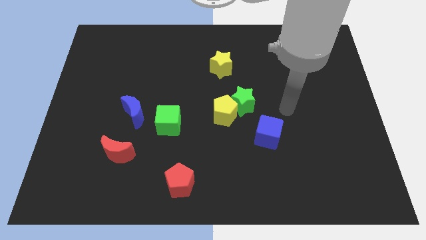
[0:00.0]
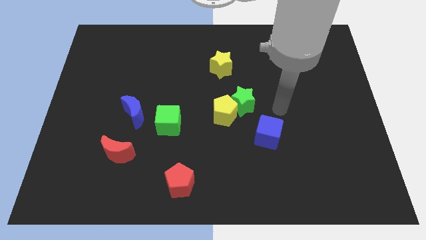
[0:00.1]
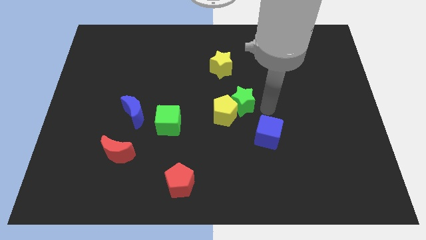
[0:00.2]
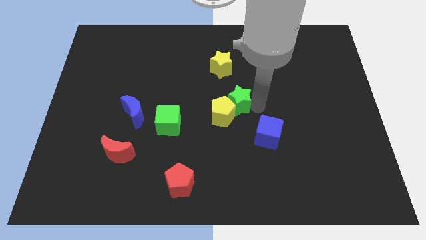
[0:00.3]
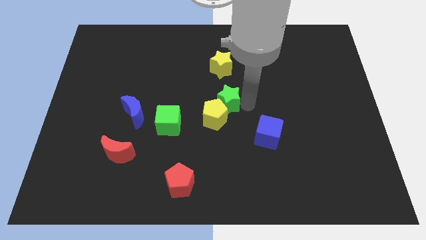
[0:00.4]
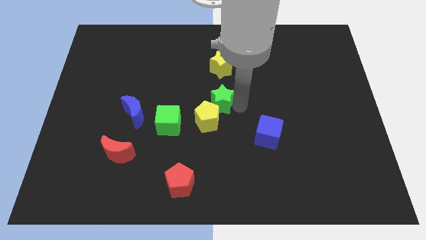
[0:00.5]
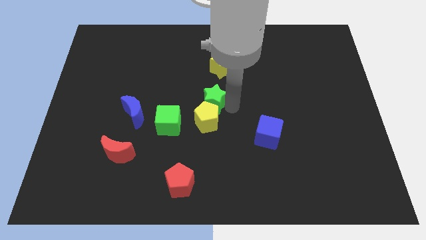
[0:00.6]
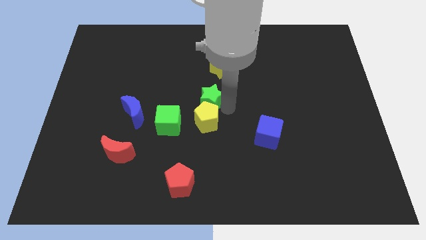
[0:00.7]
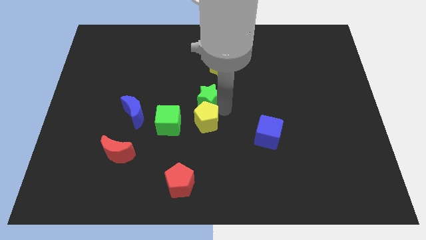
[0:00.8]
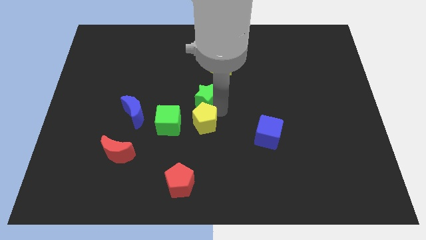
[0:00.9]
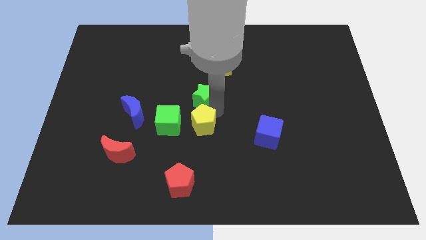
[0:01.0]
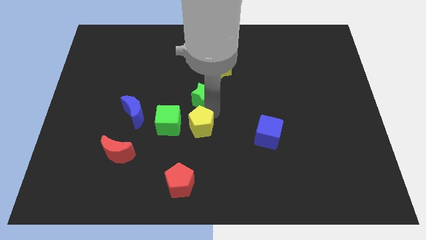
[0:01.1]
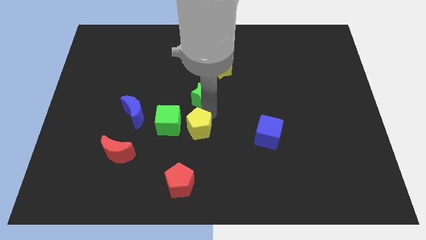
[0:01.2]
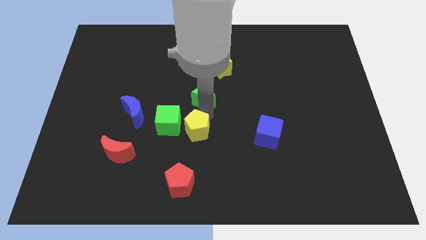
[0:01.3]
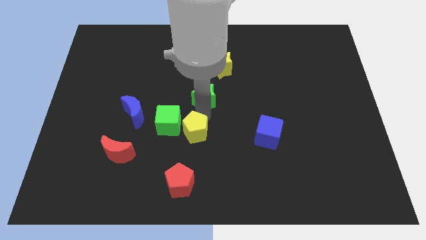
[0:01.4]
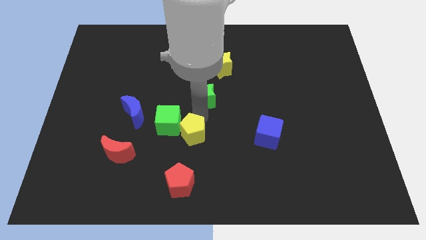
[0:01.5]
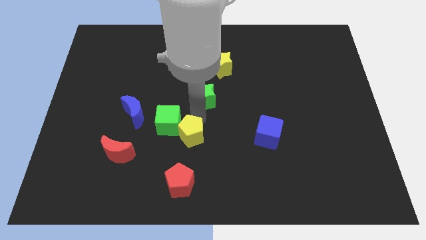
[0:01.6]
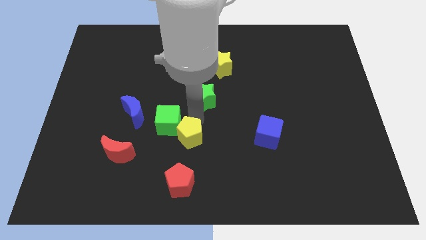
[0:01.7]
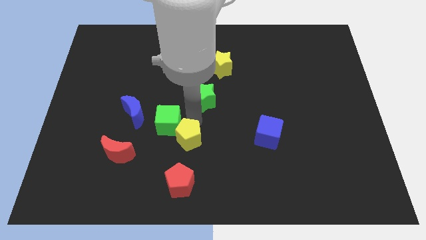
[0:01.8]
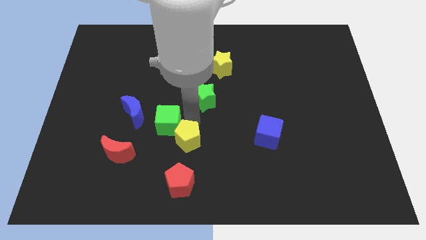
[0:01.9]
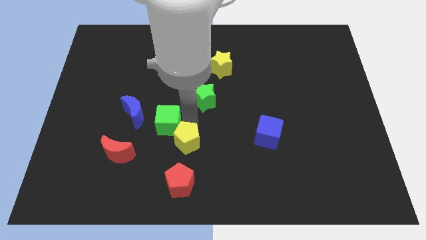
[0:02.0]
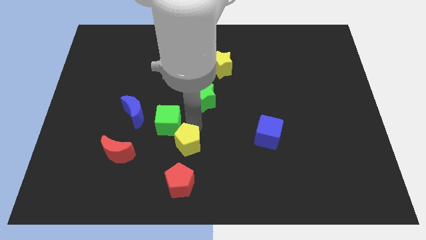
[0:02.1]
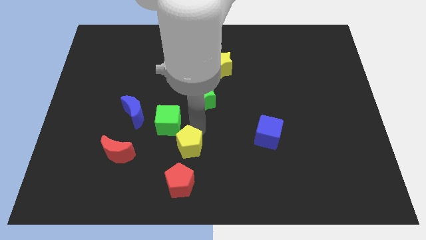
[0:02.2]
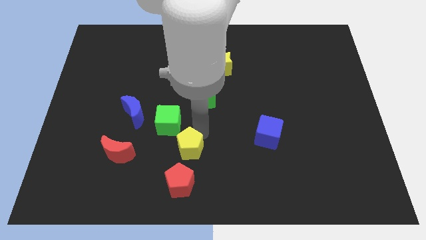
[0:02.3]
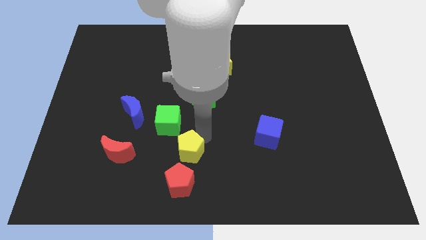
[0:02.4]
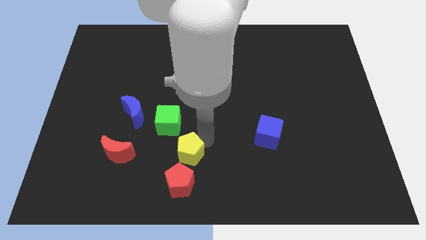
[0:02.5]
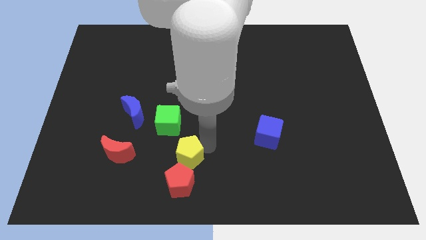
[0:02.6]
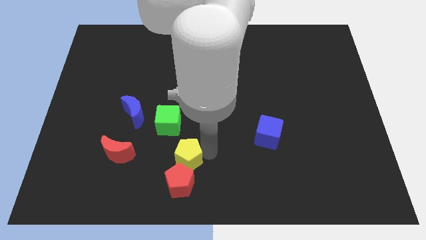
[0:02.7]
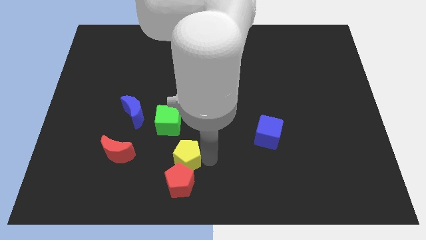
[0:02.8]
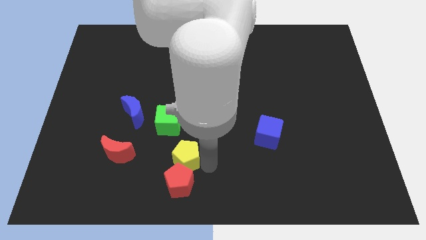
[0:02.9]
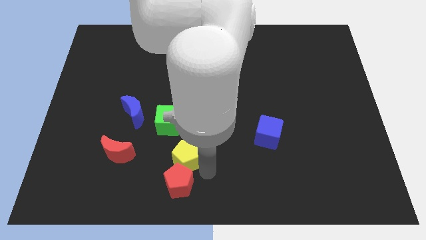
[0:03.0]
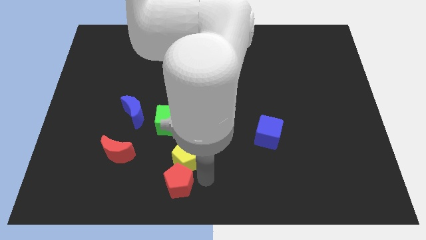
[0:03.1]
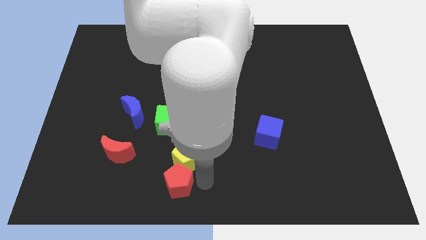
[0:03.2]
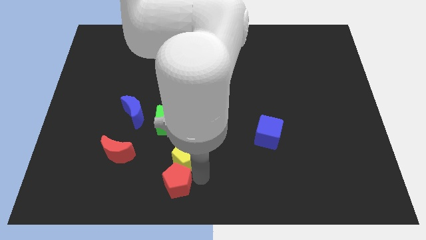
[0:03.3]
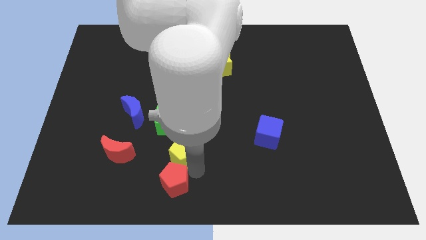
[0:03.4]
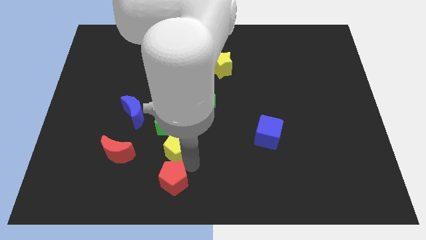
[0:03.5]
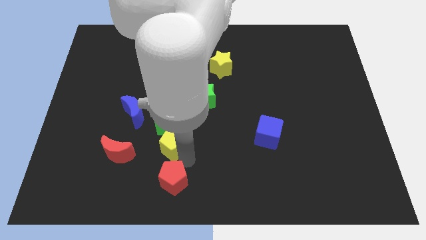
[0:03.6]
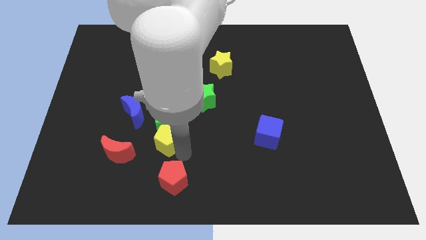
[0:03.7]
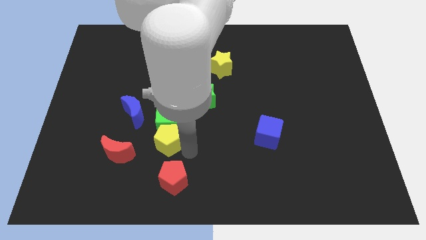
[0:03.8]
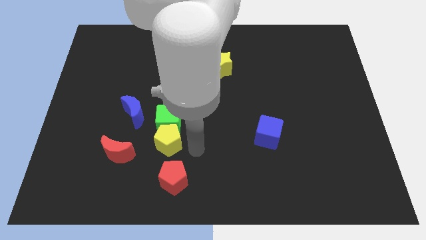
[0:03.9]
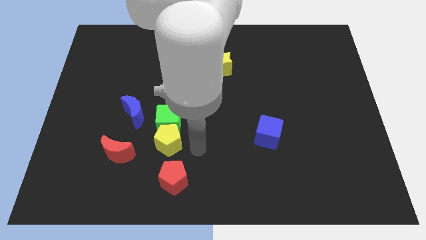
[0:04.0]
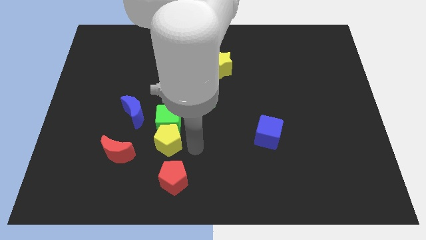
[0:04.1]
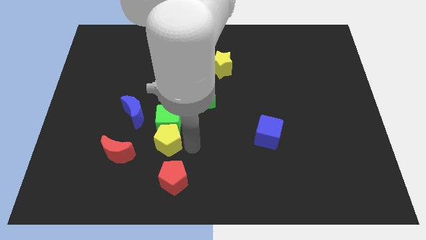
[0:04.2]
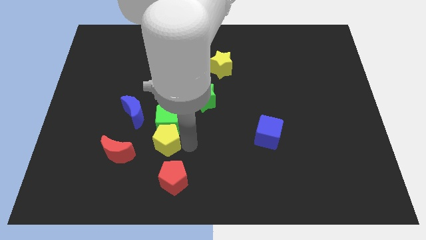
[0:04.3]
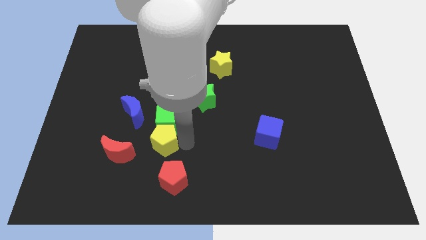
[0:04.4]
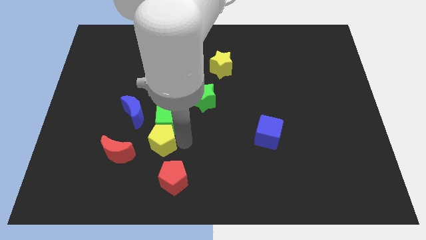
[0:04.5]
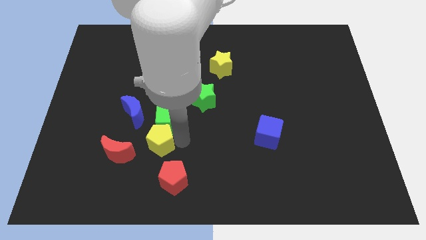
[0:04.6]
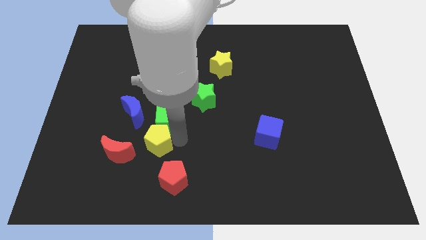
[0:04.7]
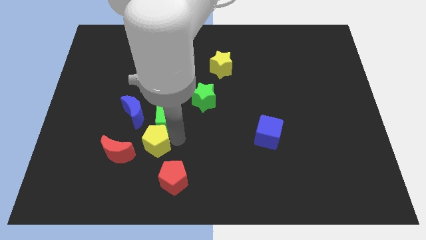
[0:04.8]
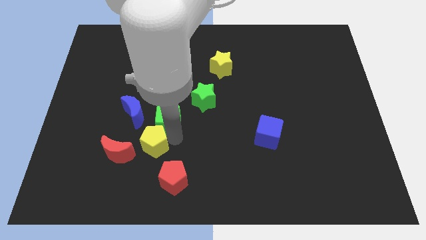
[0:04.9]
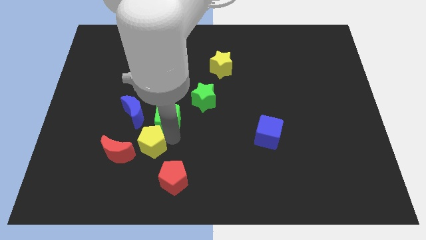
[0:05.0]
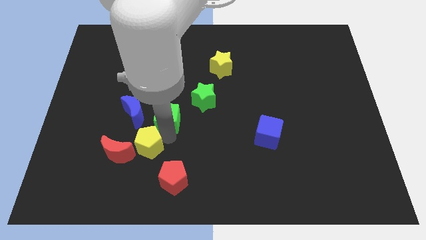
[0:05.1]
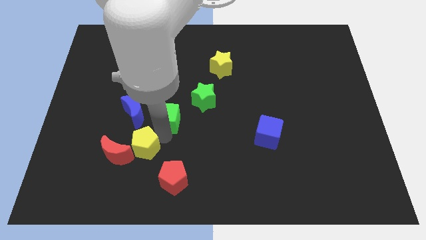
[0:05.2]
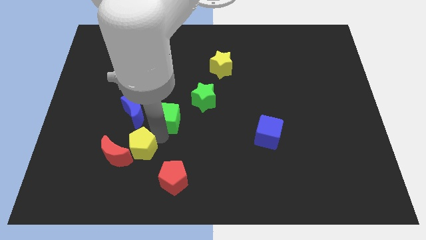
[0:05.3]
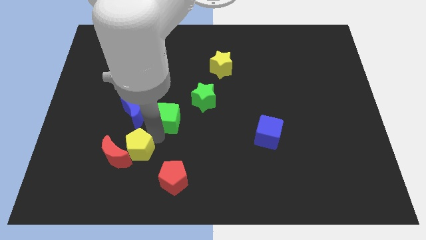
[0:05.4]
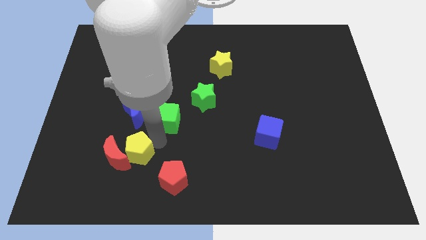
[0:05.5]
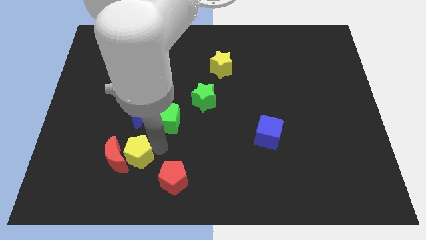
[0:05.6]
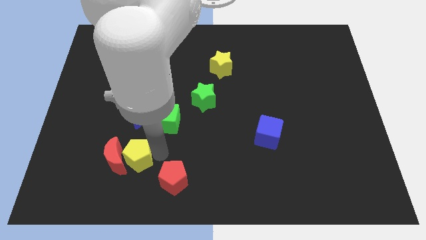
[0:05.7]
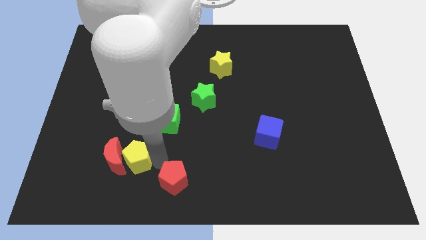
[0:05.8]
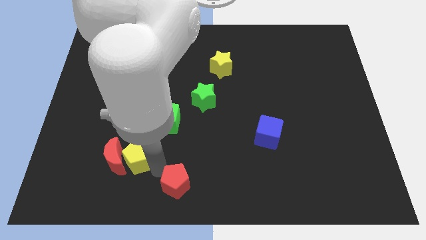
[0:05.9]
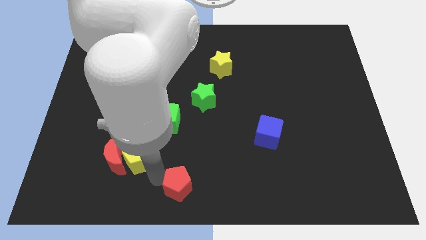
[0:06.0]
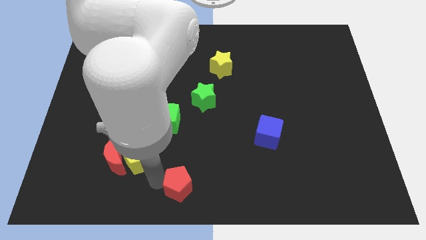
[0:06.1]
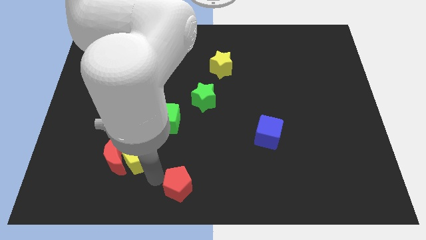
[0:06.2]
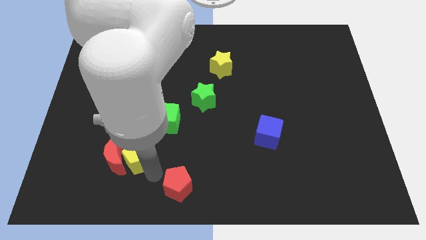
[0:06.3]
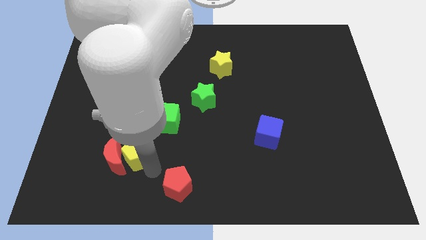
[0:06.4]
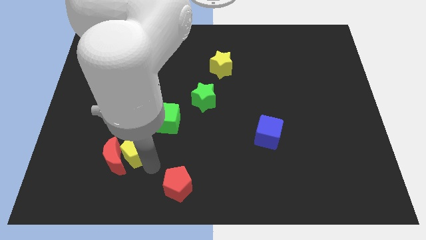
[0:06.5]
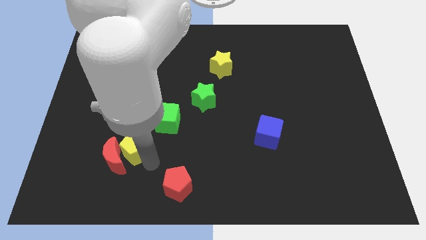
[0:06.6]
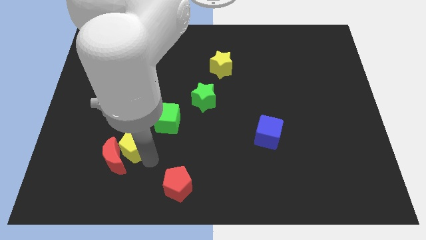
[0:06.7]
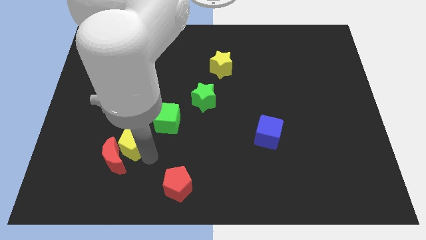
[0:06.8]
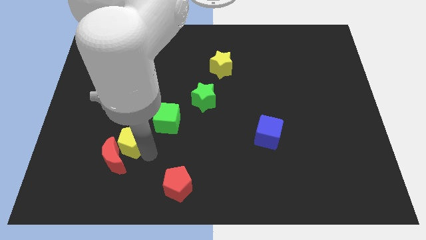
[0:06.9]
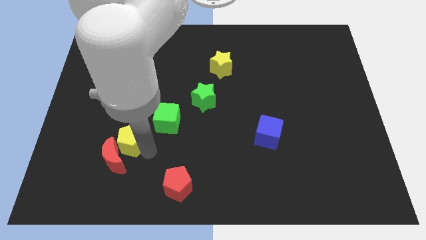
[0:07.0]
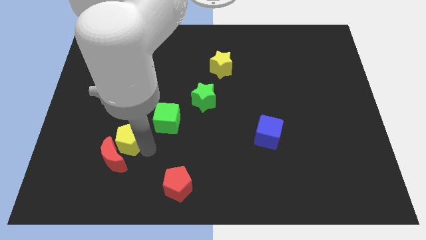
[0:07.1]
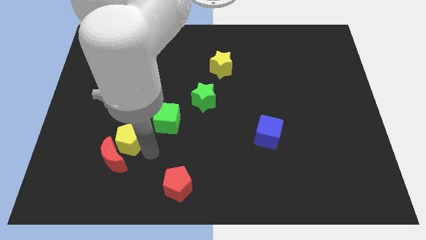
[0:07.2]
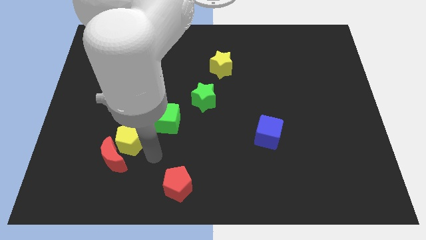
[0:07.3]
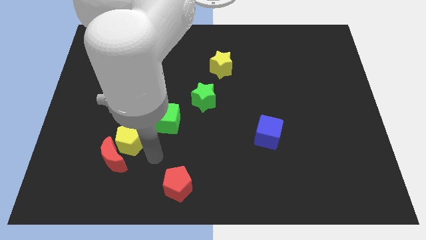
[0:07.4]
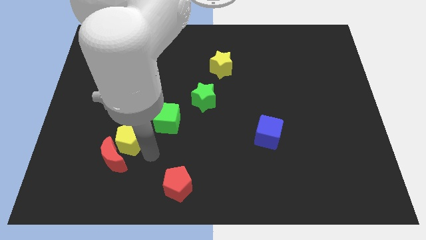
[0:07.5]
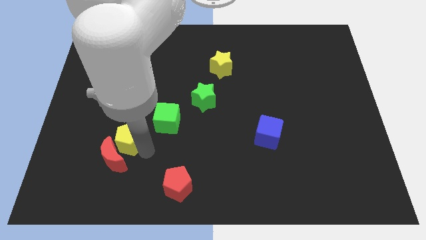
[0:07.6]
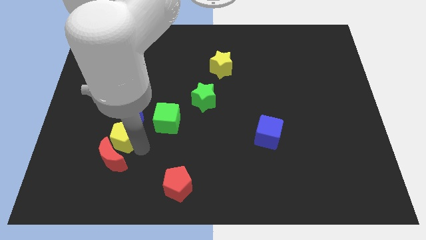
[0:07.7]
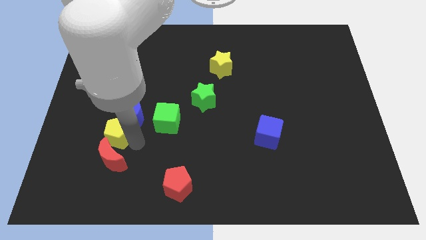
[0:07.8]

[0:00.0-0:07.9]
push the yellow pentagon diagonally up and to the left of the red moon
